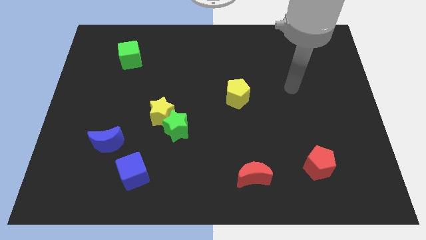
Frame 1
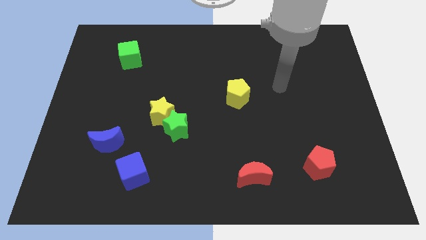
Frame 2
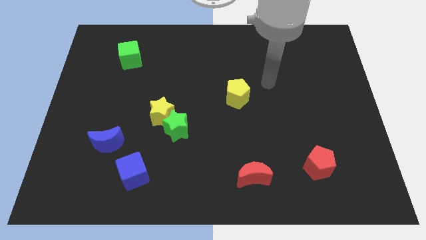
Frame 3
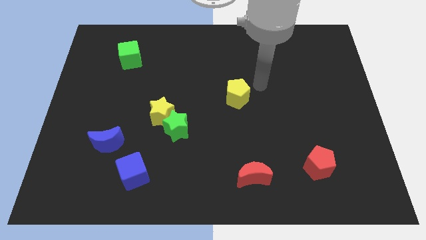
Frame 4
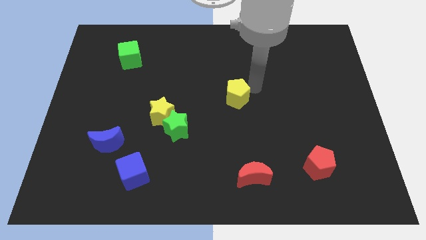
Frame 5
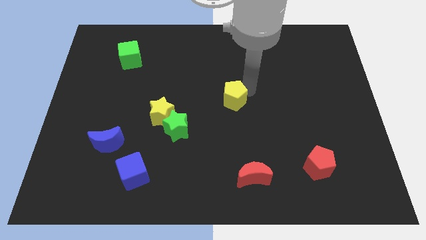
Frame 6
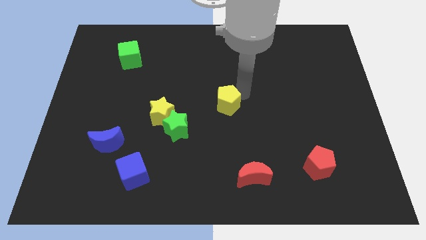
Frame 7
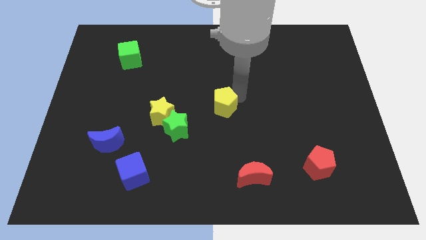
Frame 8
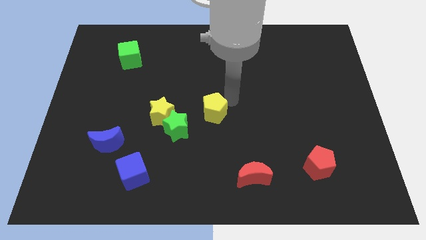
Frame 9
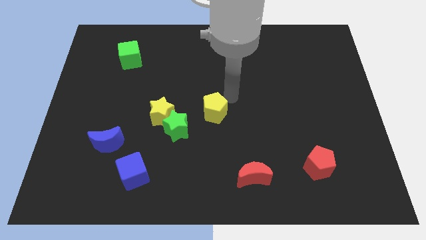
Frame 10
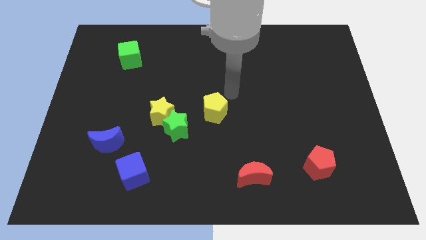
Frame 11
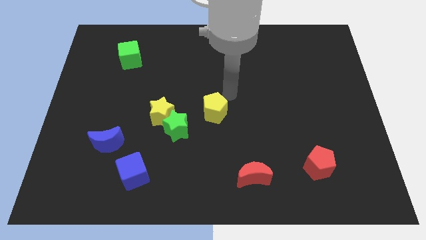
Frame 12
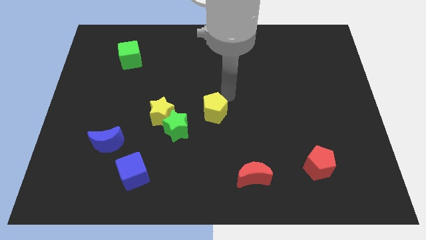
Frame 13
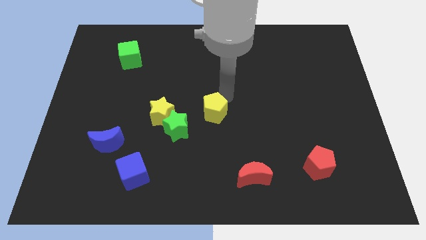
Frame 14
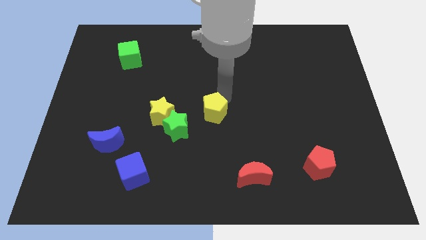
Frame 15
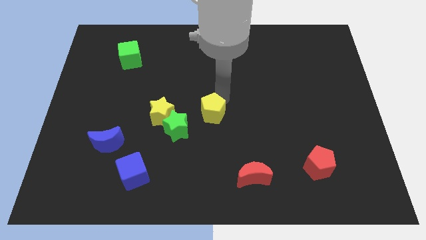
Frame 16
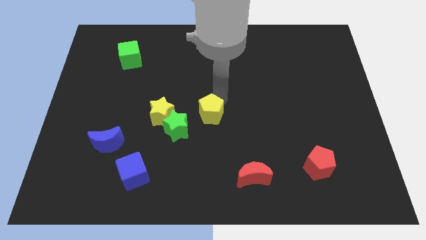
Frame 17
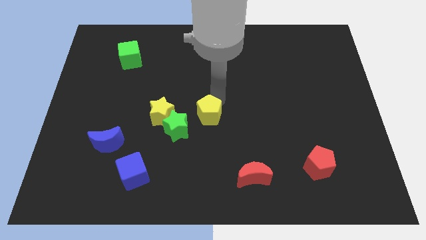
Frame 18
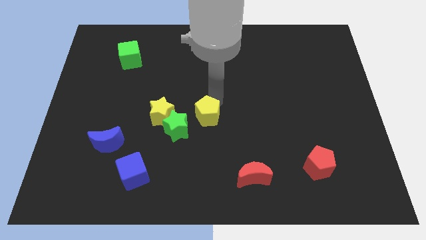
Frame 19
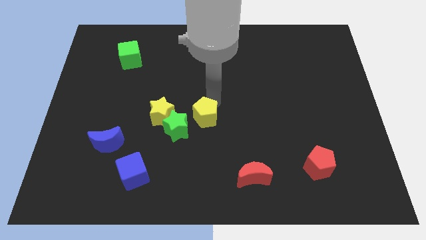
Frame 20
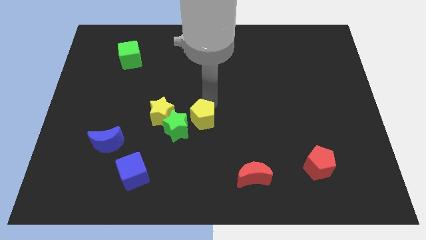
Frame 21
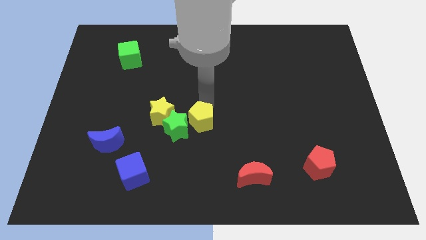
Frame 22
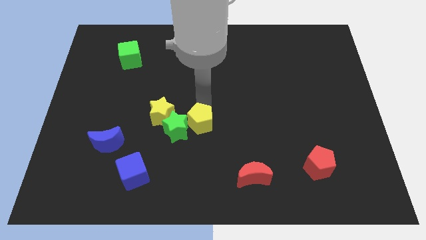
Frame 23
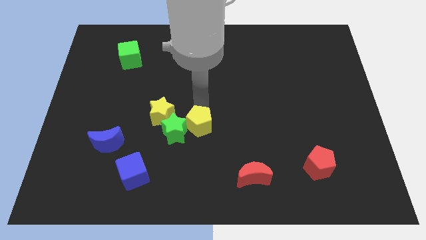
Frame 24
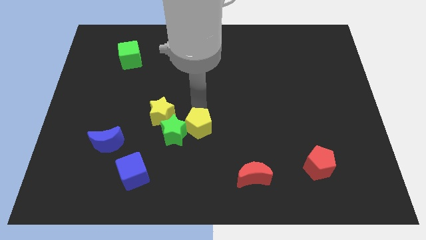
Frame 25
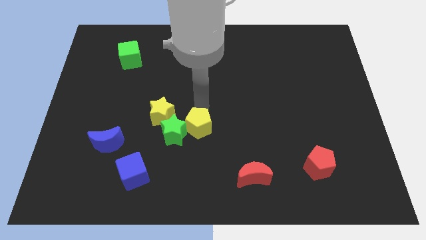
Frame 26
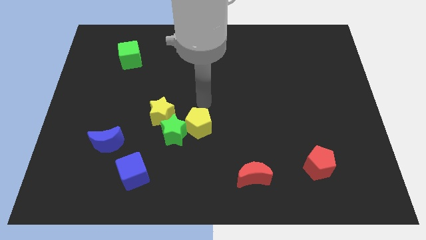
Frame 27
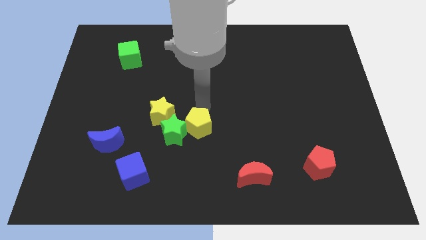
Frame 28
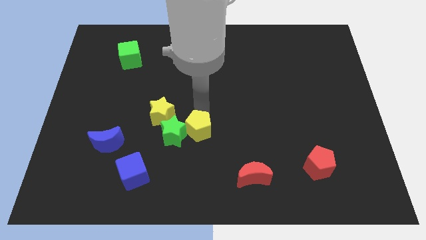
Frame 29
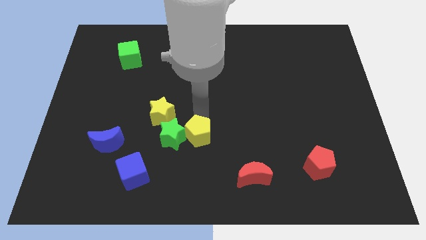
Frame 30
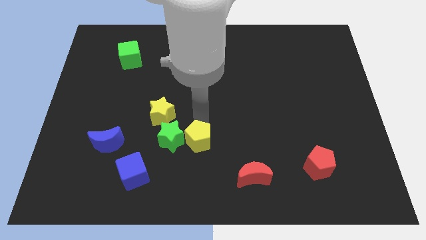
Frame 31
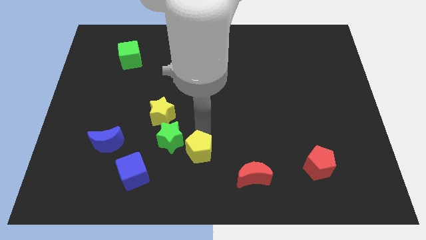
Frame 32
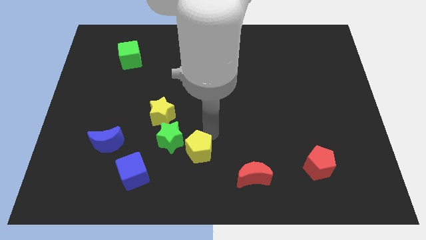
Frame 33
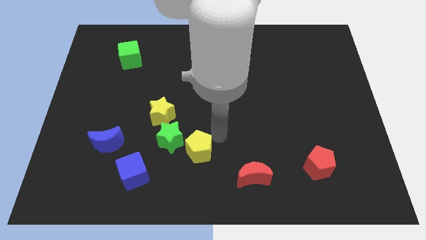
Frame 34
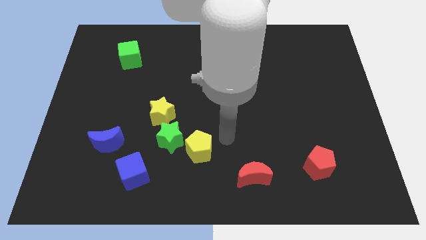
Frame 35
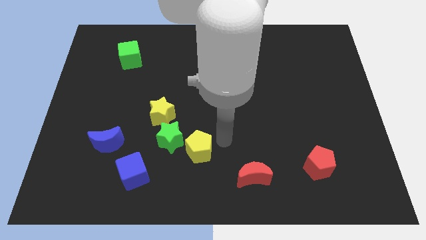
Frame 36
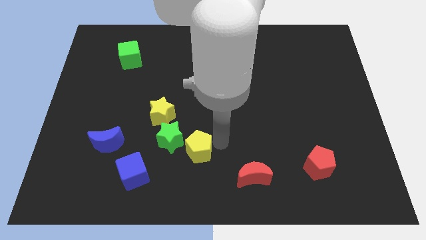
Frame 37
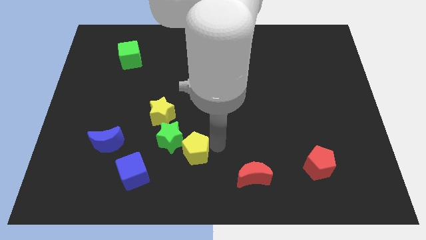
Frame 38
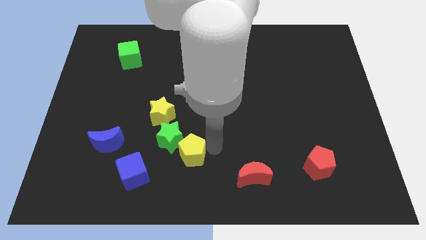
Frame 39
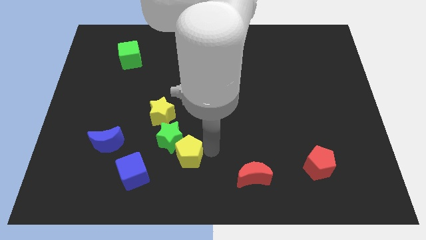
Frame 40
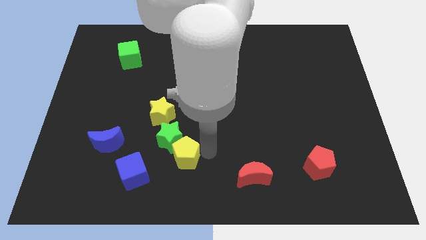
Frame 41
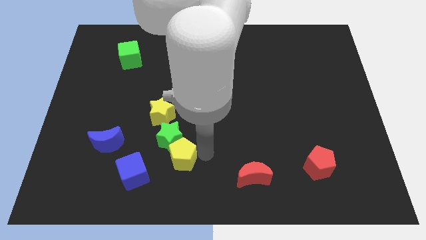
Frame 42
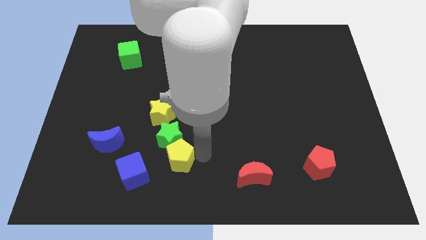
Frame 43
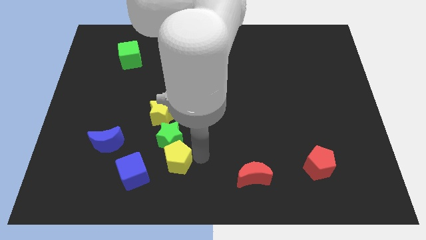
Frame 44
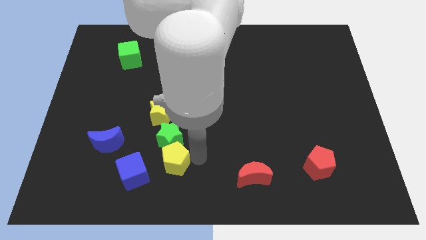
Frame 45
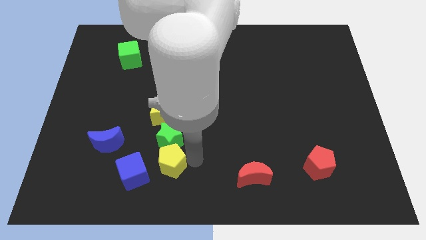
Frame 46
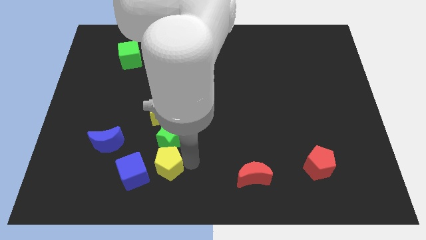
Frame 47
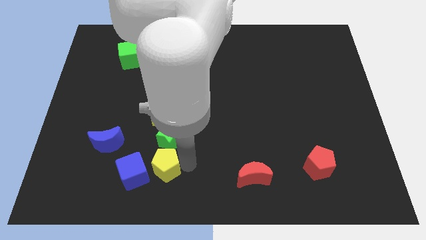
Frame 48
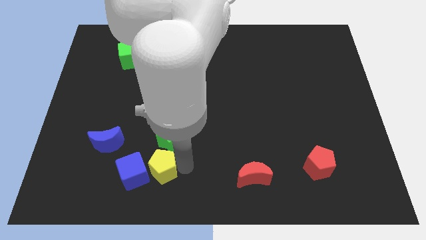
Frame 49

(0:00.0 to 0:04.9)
move the yellow pentagon next to the blue cube

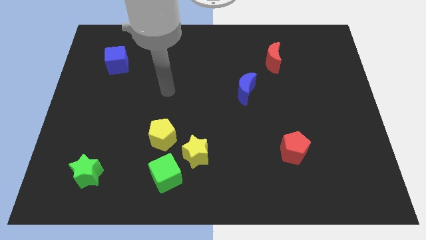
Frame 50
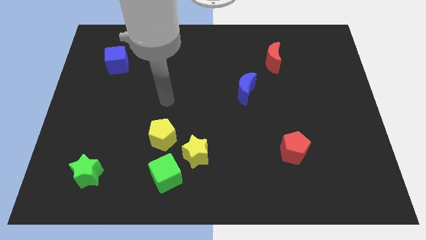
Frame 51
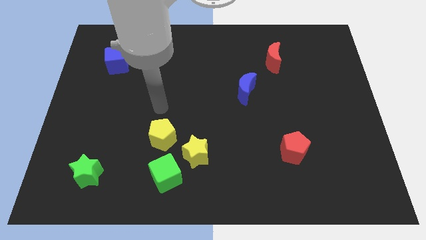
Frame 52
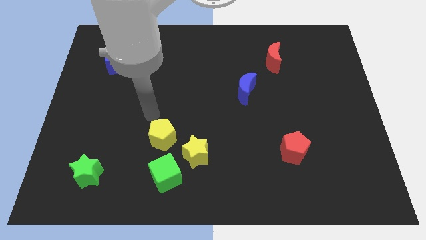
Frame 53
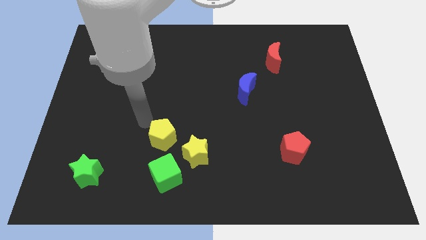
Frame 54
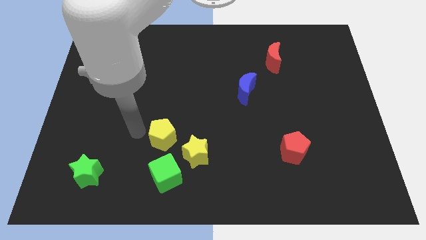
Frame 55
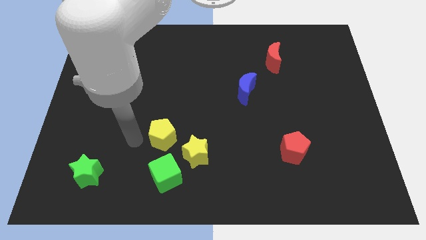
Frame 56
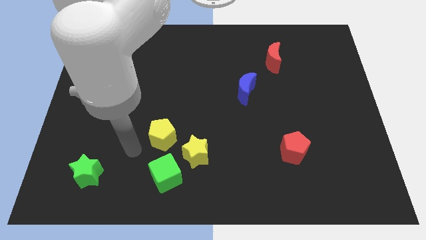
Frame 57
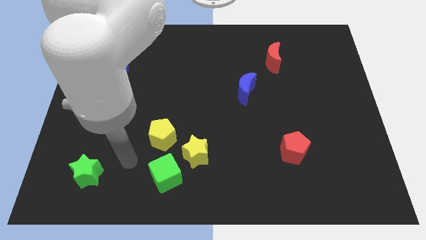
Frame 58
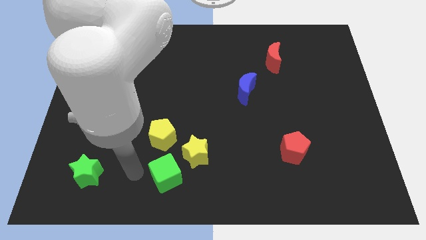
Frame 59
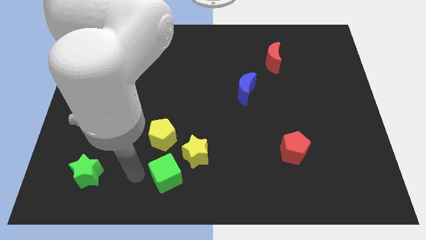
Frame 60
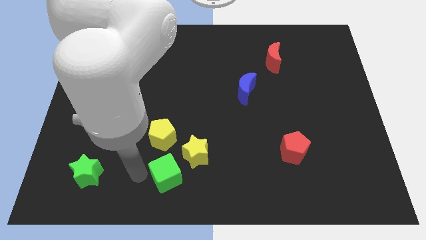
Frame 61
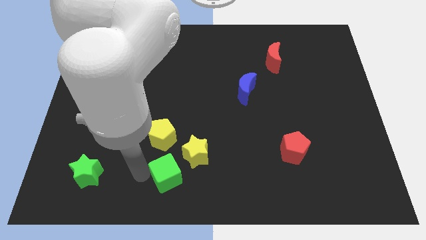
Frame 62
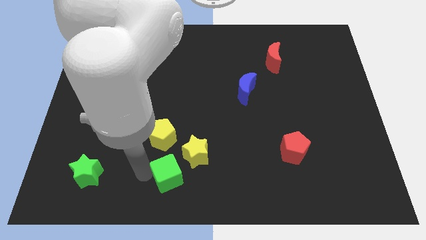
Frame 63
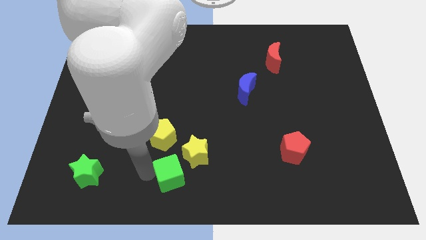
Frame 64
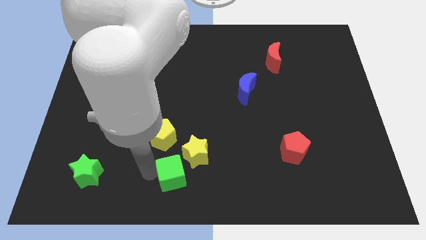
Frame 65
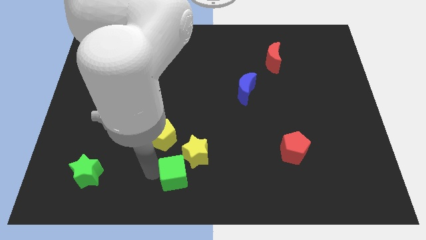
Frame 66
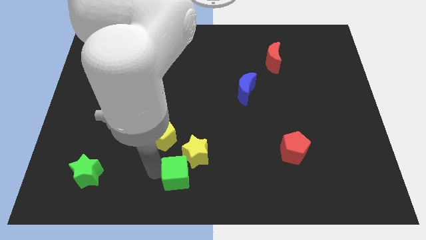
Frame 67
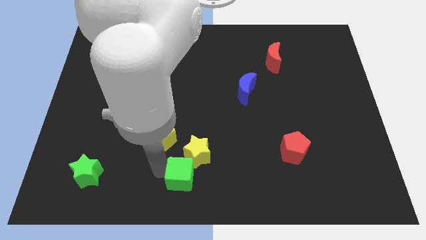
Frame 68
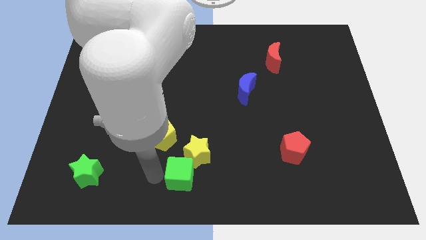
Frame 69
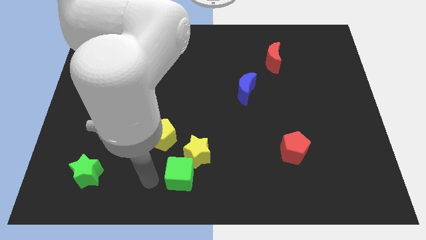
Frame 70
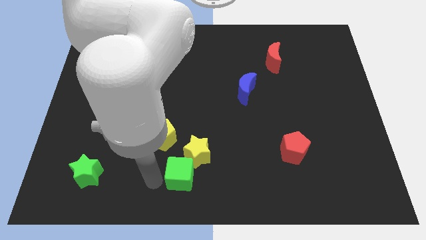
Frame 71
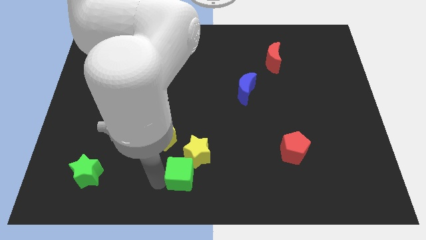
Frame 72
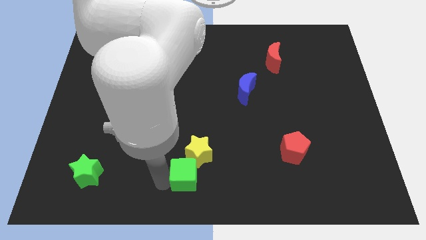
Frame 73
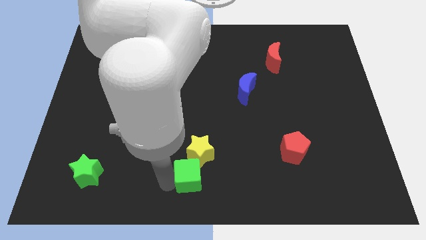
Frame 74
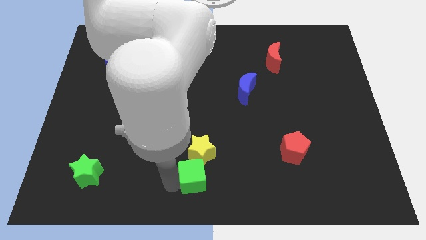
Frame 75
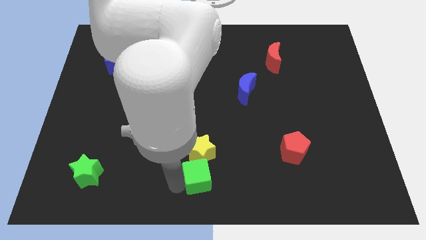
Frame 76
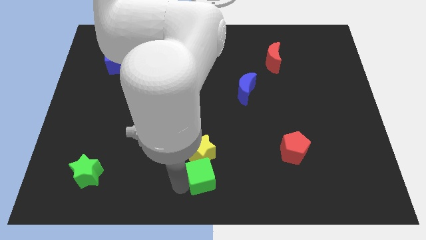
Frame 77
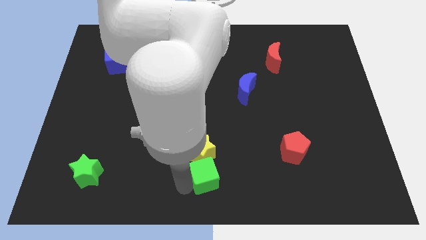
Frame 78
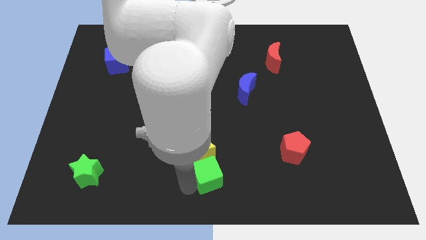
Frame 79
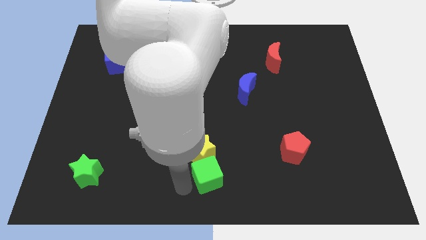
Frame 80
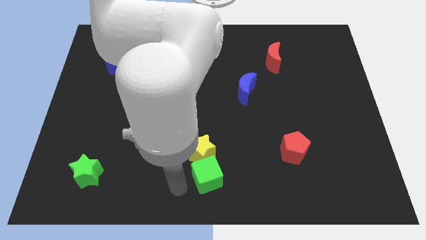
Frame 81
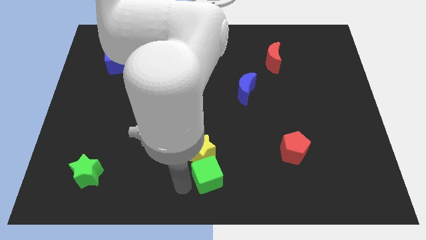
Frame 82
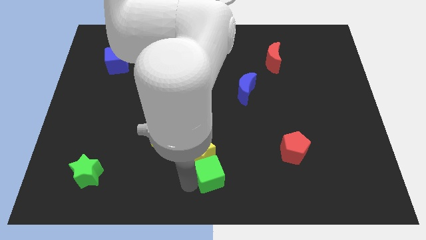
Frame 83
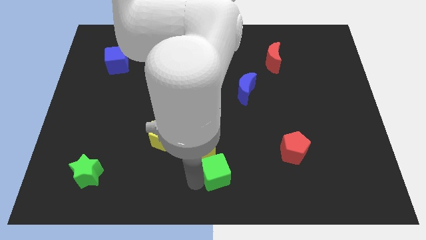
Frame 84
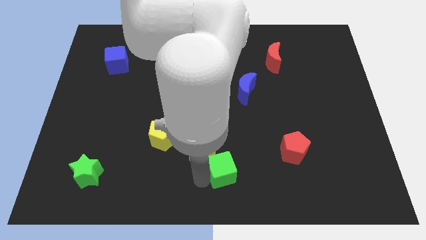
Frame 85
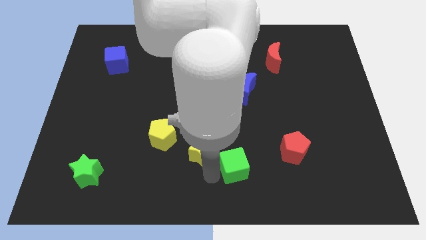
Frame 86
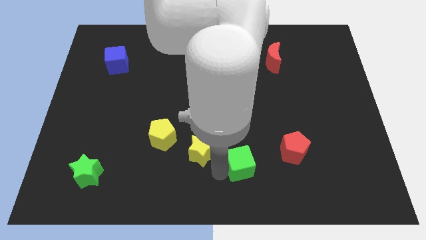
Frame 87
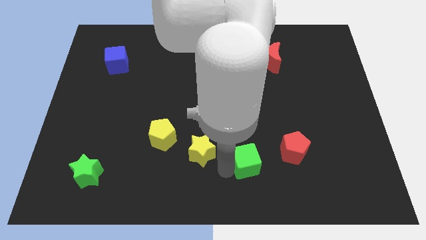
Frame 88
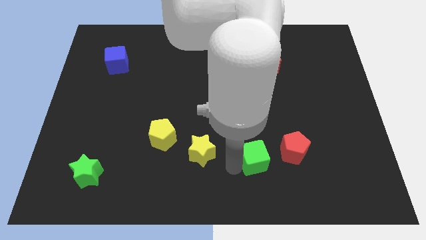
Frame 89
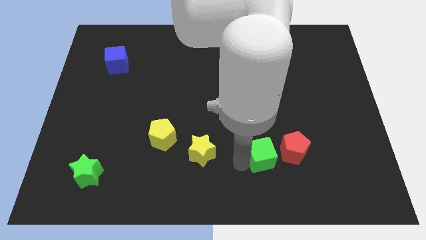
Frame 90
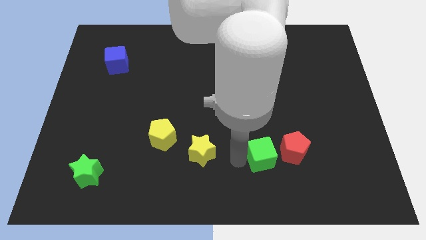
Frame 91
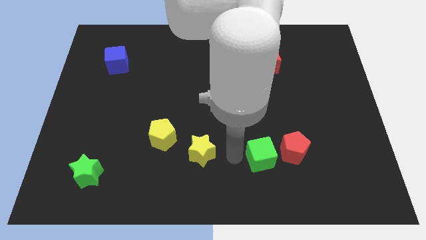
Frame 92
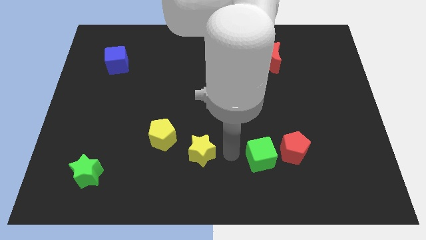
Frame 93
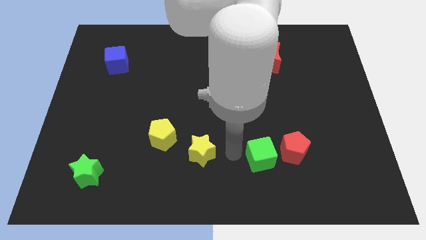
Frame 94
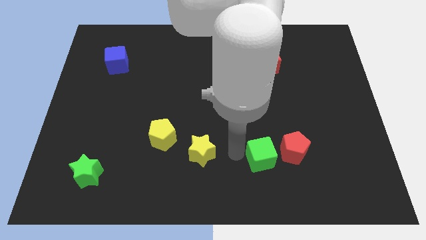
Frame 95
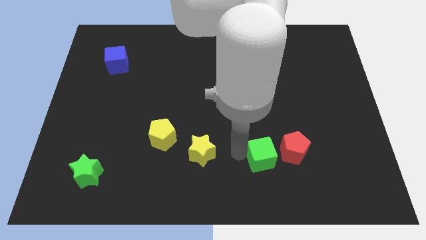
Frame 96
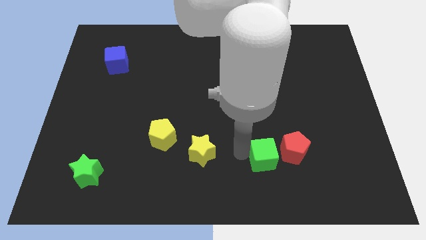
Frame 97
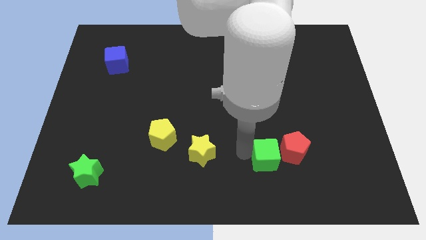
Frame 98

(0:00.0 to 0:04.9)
move the green cube next to the red pentagon
